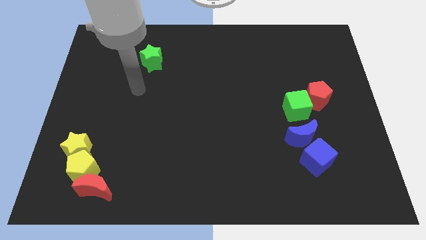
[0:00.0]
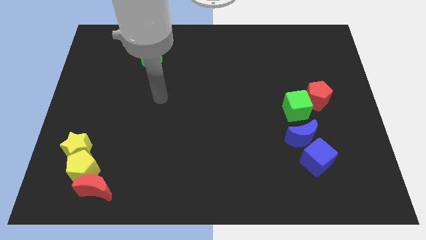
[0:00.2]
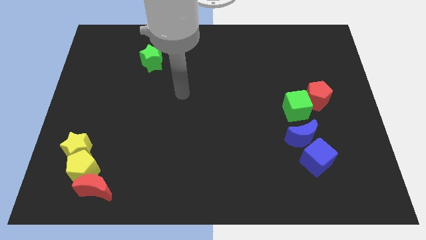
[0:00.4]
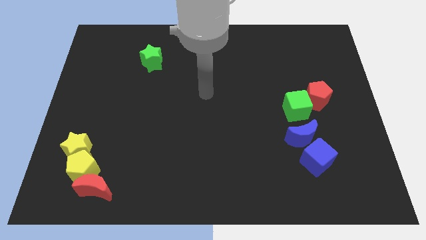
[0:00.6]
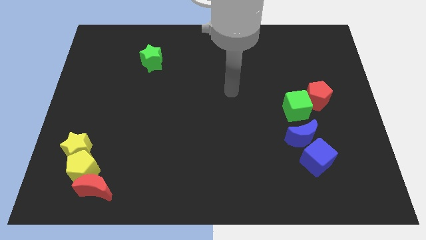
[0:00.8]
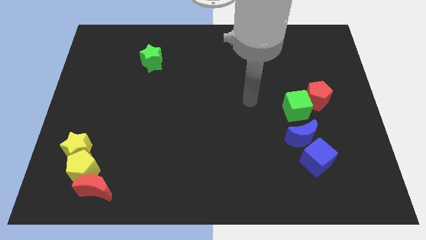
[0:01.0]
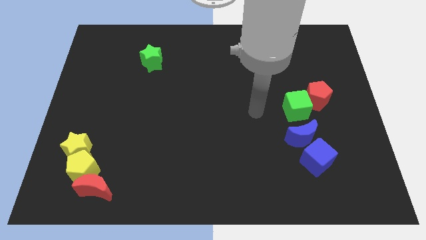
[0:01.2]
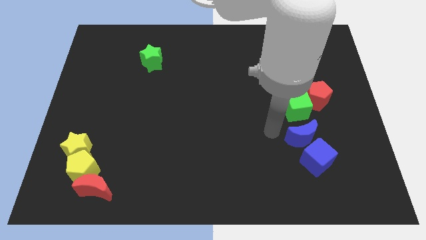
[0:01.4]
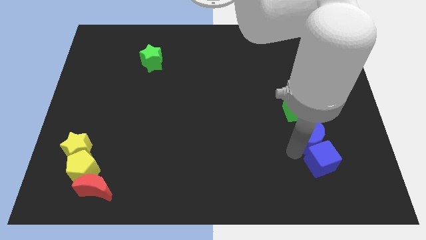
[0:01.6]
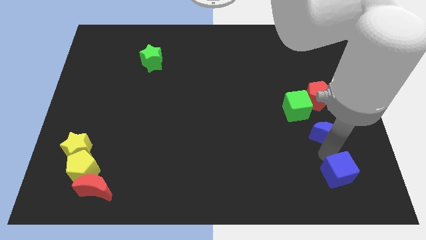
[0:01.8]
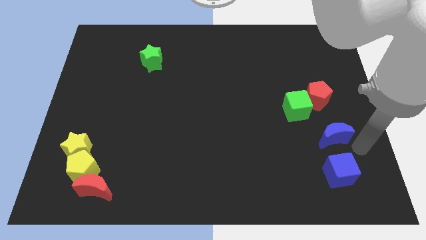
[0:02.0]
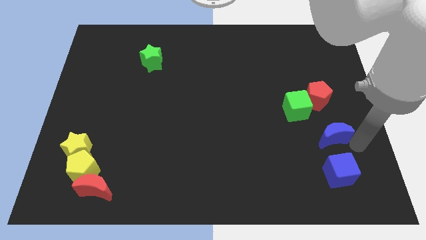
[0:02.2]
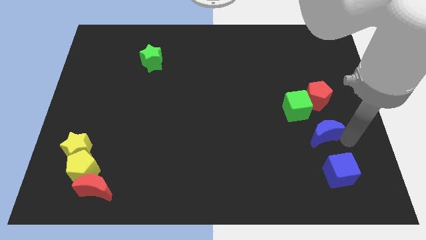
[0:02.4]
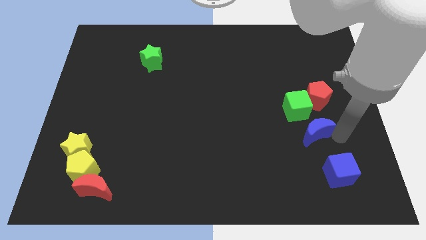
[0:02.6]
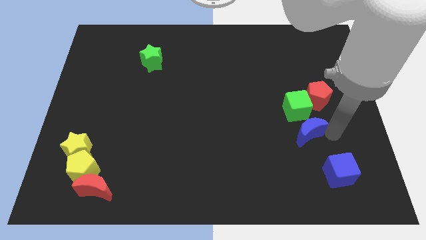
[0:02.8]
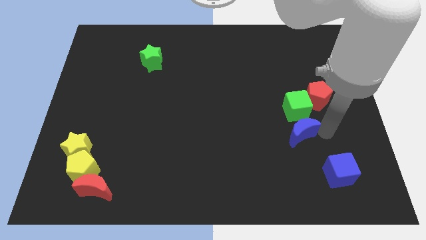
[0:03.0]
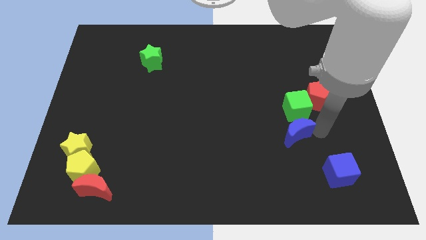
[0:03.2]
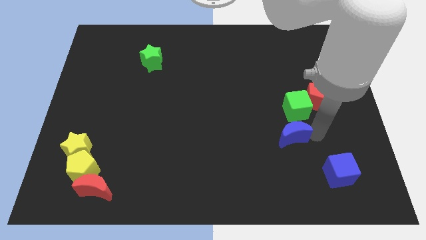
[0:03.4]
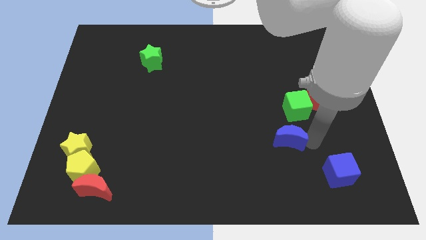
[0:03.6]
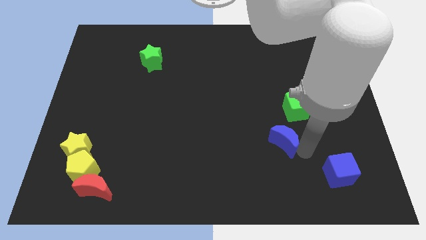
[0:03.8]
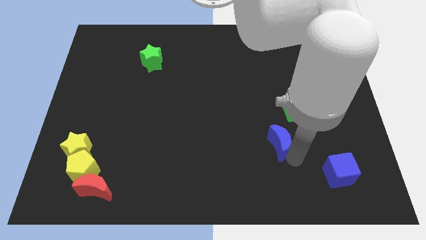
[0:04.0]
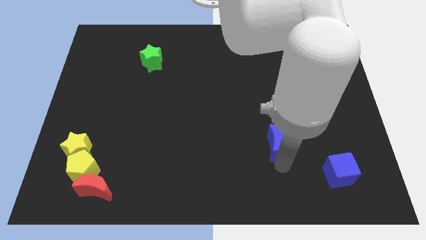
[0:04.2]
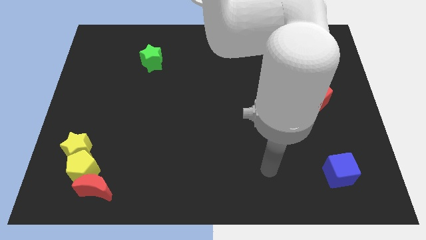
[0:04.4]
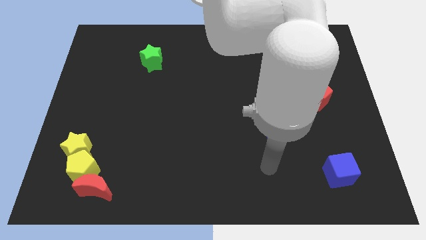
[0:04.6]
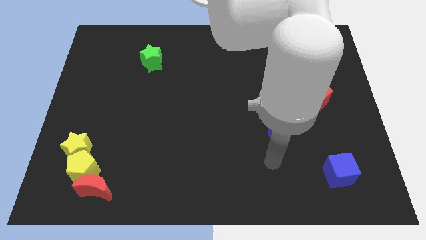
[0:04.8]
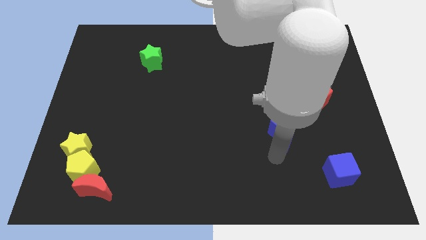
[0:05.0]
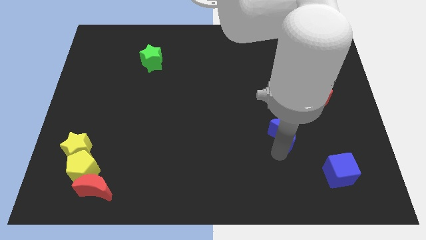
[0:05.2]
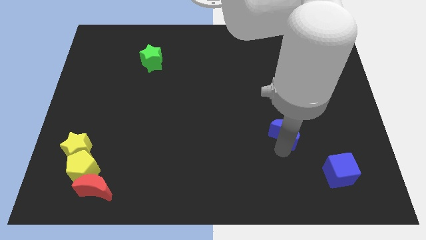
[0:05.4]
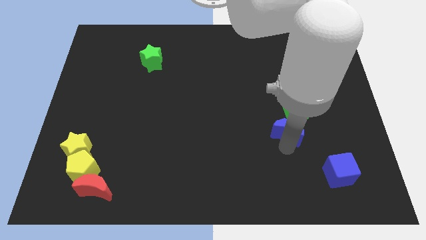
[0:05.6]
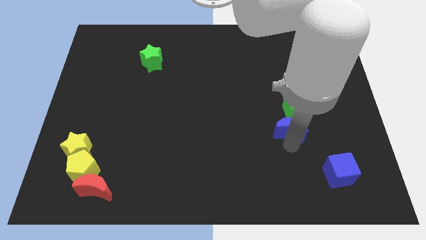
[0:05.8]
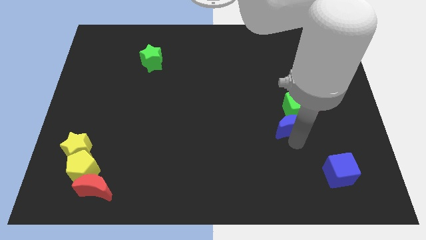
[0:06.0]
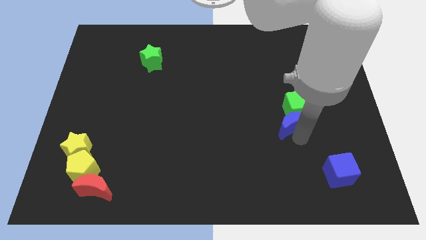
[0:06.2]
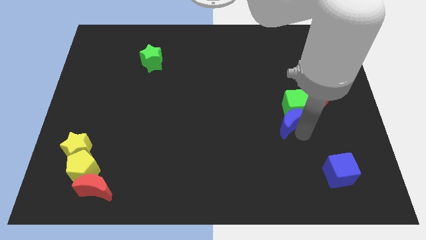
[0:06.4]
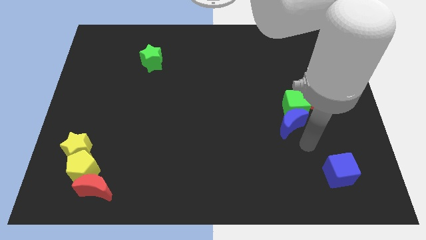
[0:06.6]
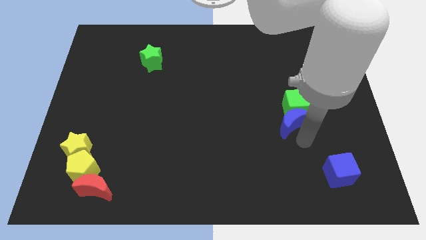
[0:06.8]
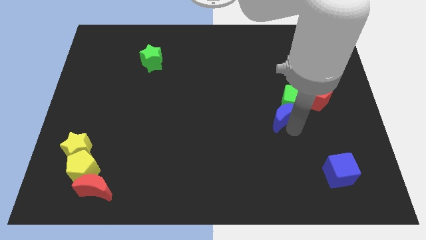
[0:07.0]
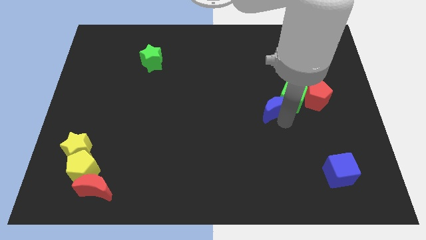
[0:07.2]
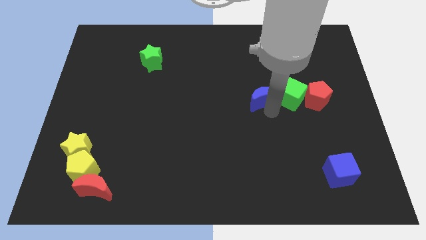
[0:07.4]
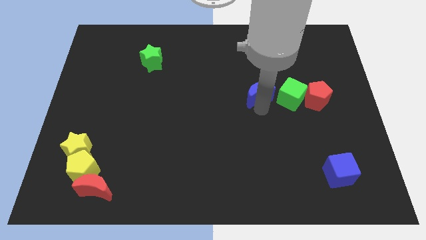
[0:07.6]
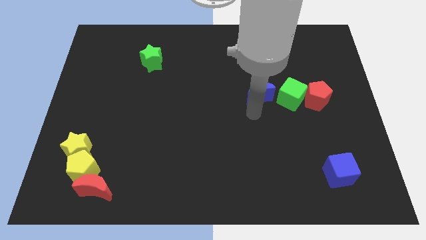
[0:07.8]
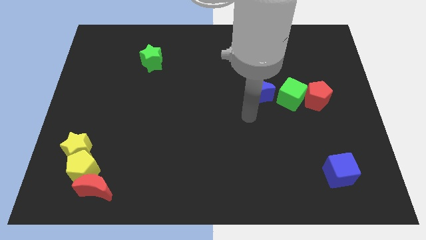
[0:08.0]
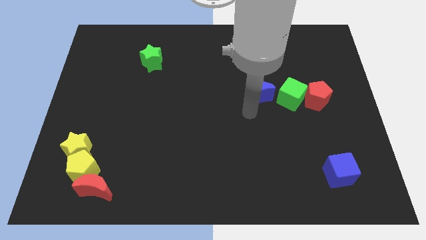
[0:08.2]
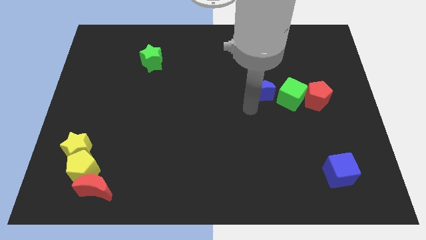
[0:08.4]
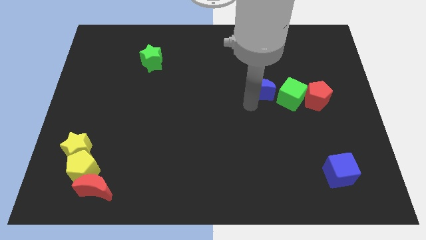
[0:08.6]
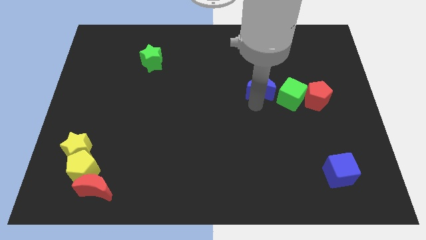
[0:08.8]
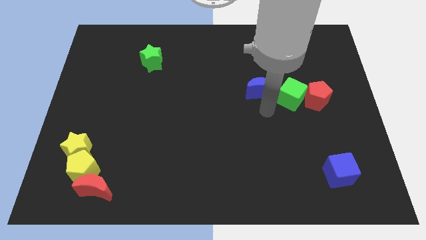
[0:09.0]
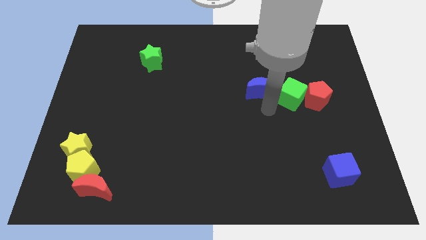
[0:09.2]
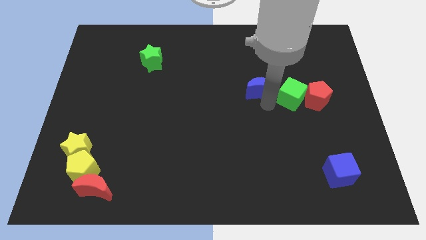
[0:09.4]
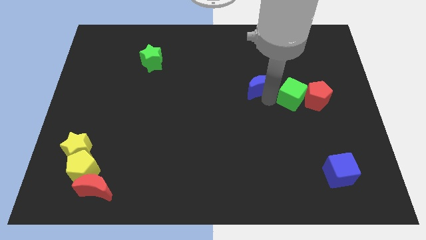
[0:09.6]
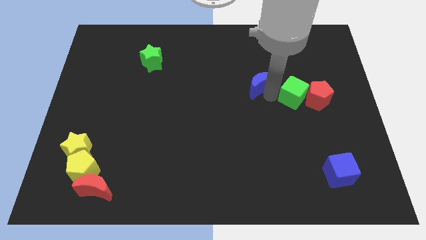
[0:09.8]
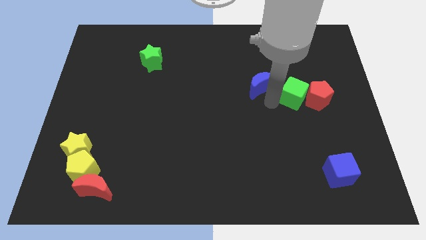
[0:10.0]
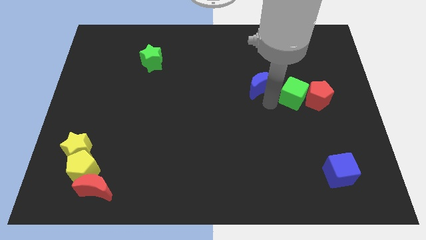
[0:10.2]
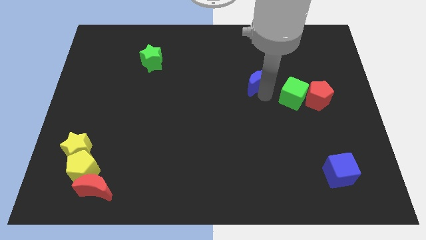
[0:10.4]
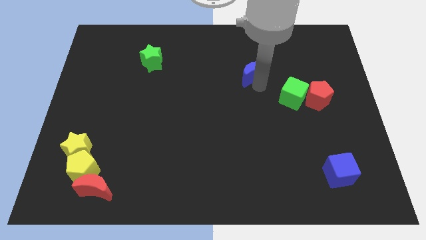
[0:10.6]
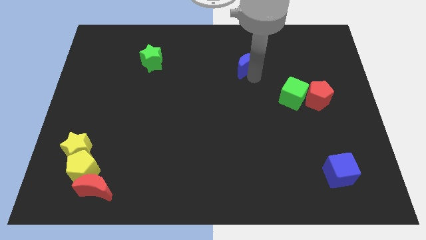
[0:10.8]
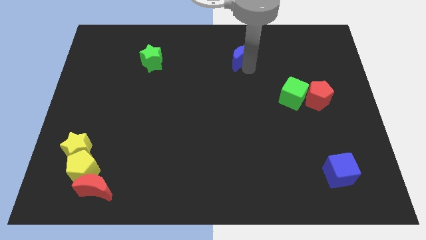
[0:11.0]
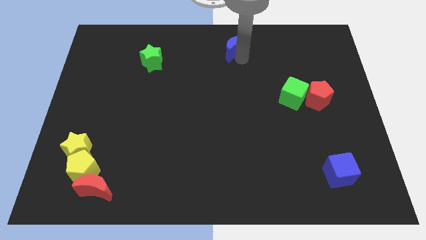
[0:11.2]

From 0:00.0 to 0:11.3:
slide the blue moon to the top side

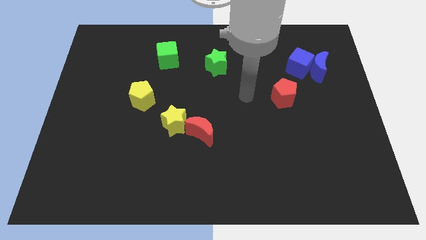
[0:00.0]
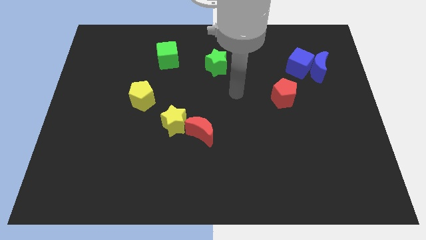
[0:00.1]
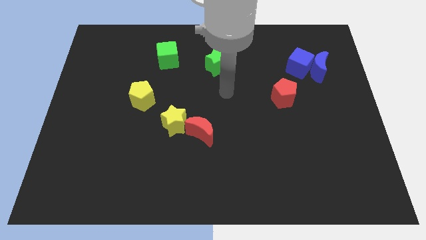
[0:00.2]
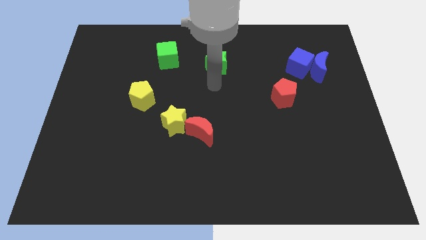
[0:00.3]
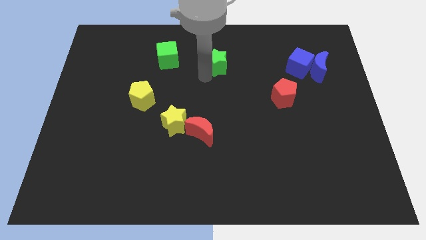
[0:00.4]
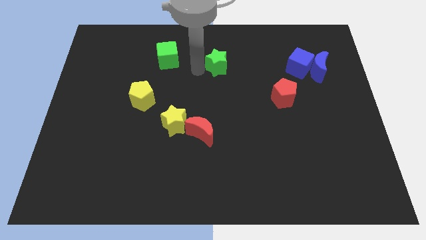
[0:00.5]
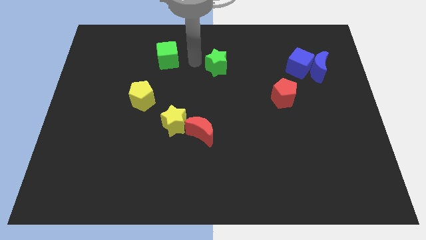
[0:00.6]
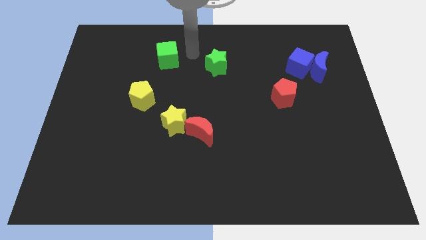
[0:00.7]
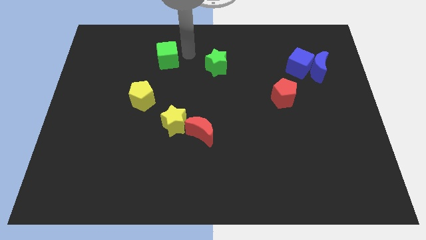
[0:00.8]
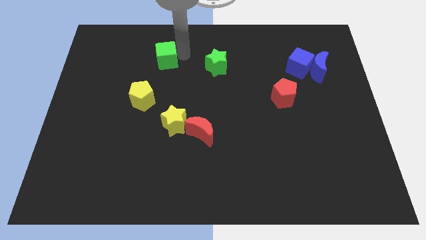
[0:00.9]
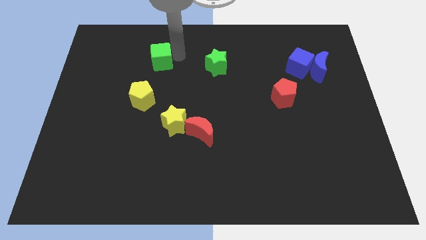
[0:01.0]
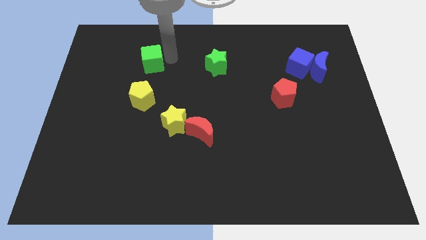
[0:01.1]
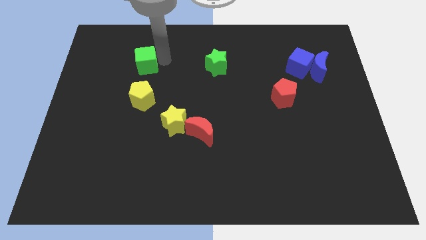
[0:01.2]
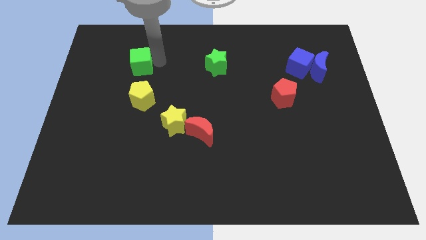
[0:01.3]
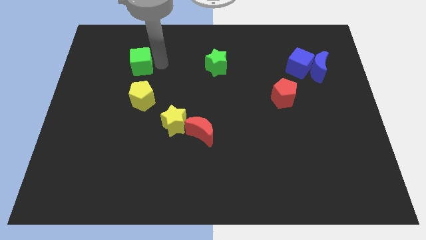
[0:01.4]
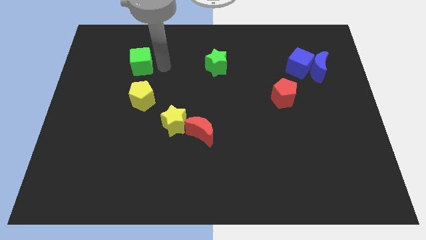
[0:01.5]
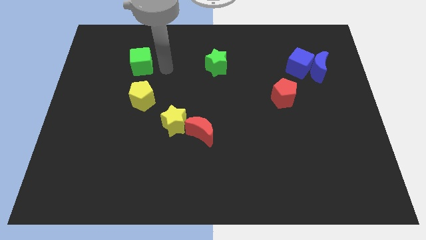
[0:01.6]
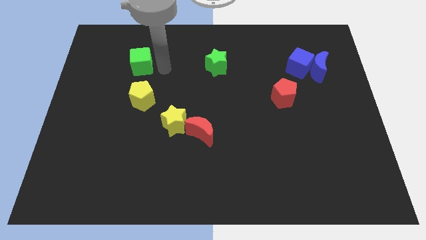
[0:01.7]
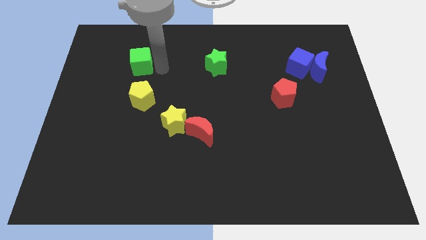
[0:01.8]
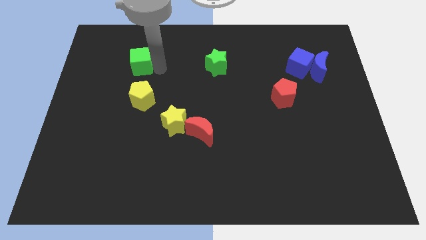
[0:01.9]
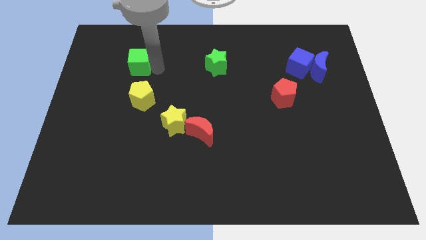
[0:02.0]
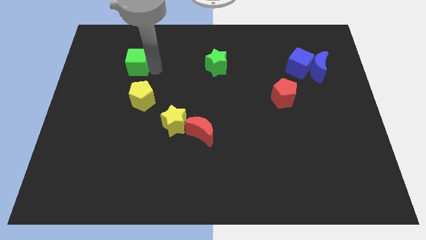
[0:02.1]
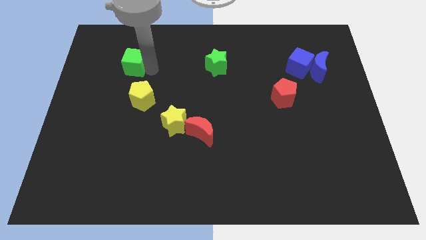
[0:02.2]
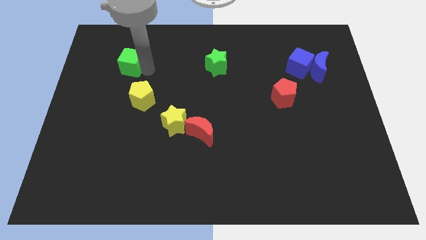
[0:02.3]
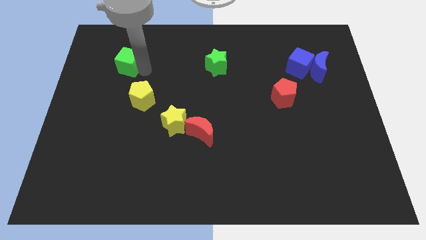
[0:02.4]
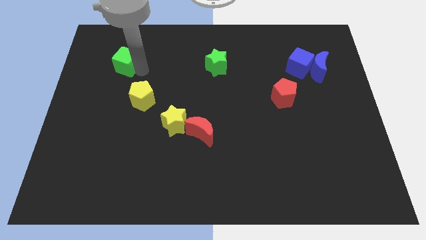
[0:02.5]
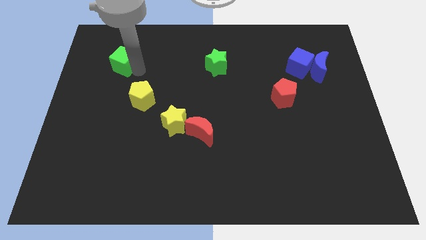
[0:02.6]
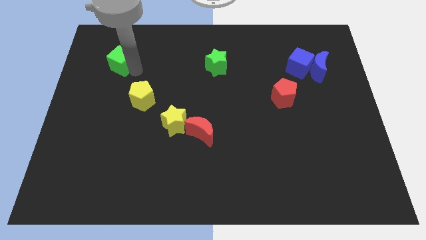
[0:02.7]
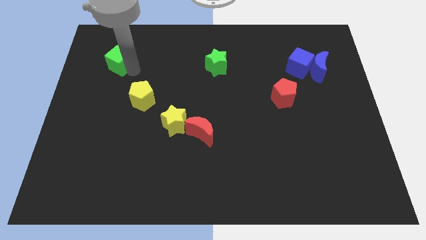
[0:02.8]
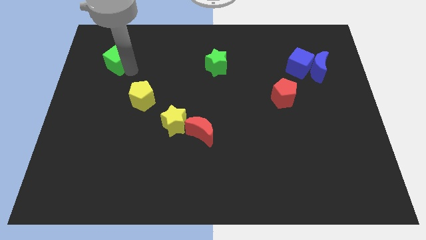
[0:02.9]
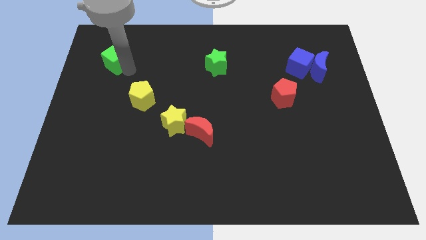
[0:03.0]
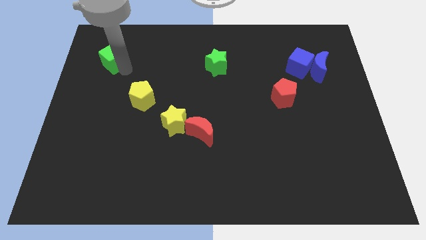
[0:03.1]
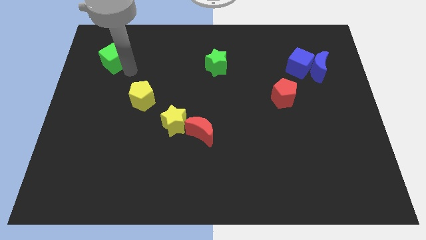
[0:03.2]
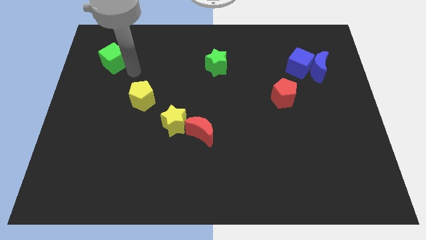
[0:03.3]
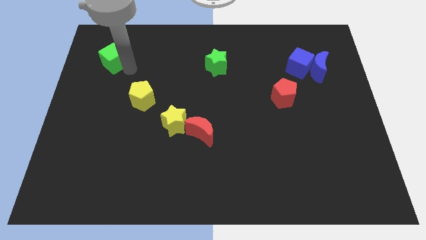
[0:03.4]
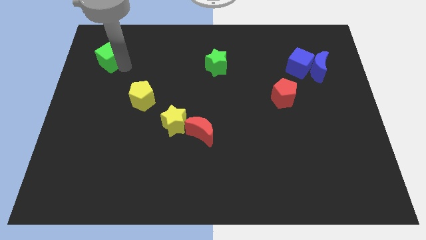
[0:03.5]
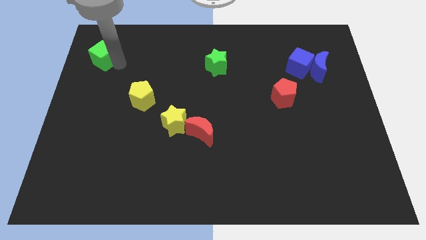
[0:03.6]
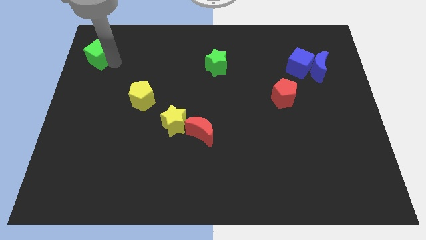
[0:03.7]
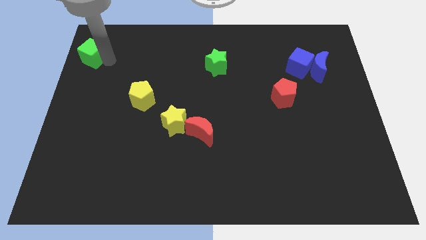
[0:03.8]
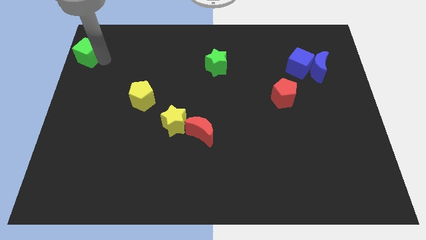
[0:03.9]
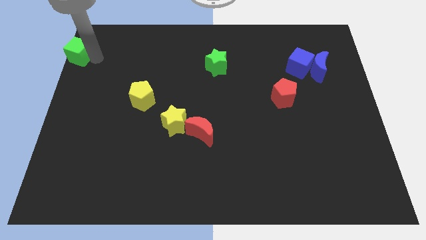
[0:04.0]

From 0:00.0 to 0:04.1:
push the green cube to the upper left corner
